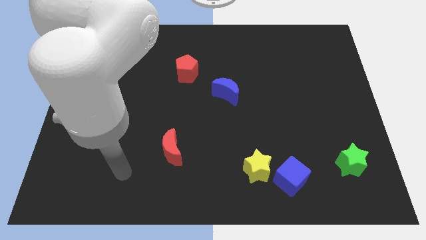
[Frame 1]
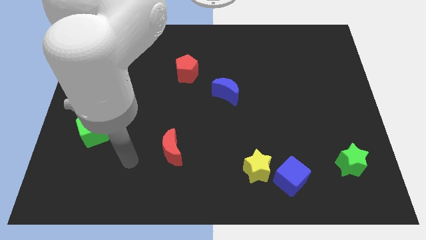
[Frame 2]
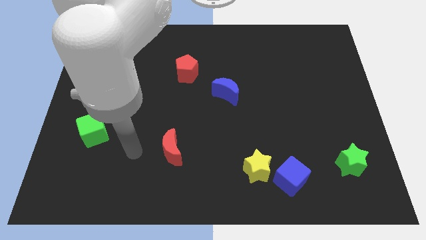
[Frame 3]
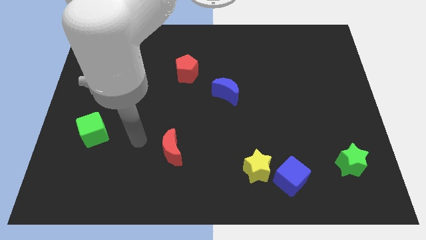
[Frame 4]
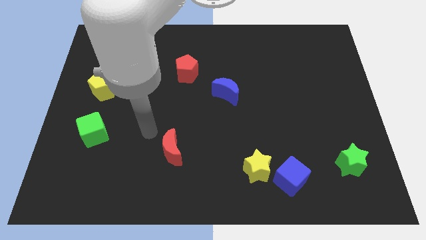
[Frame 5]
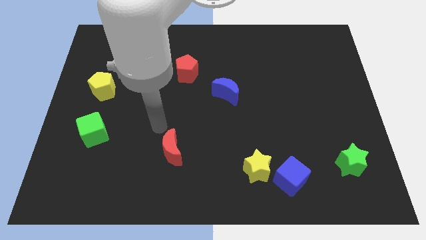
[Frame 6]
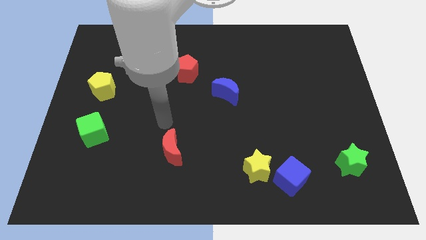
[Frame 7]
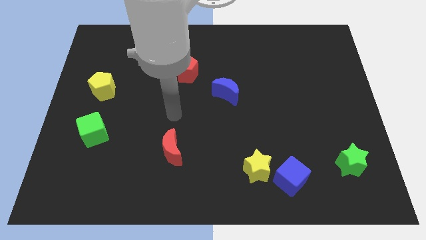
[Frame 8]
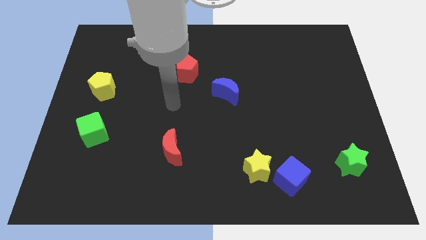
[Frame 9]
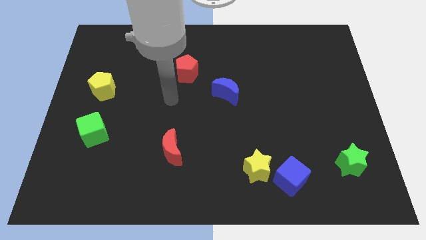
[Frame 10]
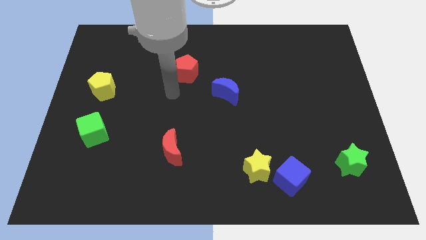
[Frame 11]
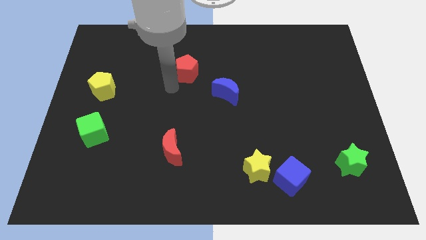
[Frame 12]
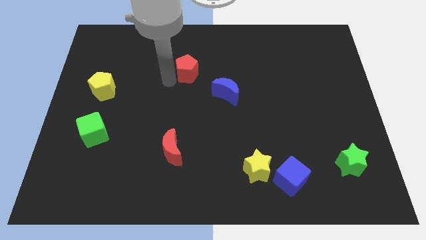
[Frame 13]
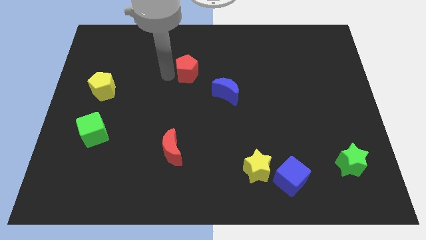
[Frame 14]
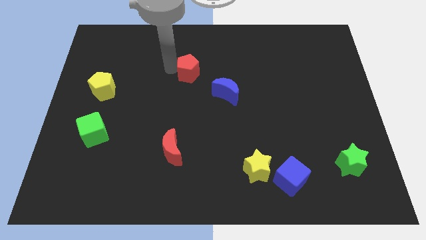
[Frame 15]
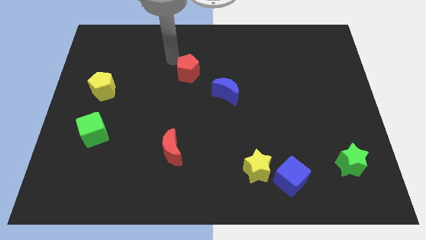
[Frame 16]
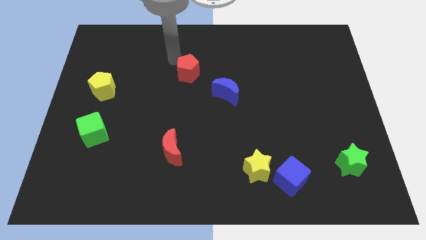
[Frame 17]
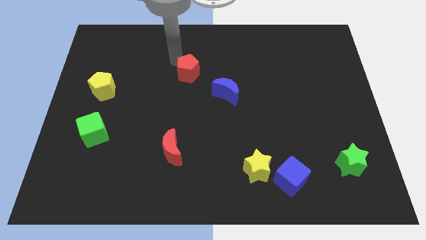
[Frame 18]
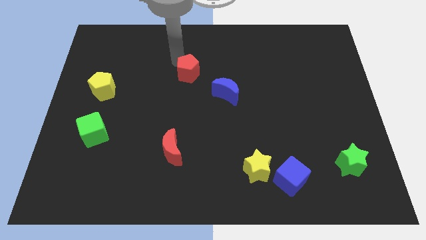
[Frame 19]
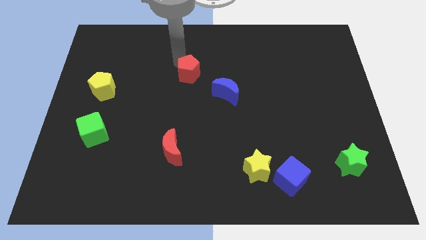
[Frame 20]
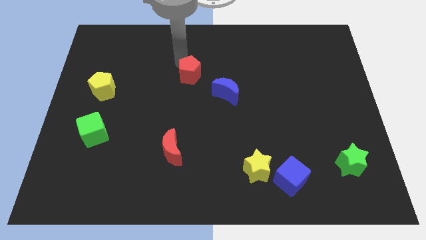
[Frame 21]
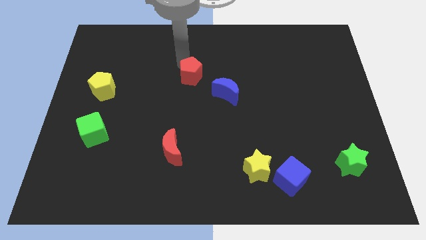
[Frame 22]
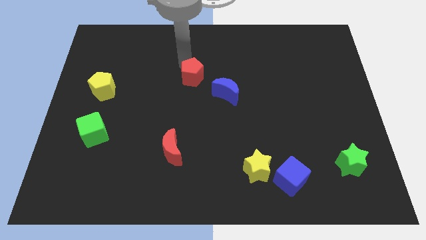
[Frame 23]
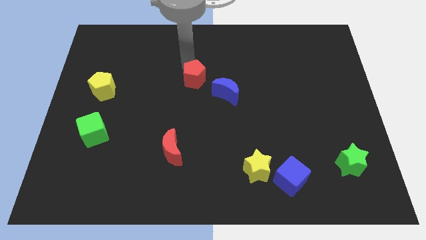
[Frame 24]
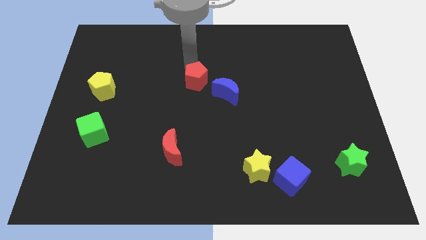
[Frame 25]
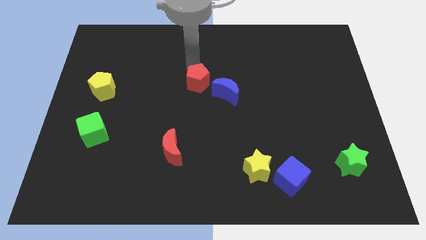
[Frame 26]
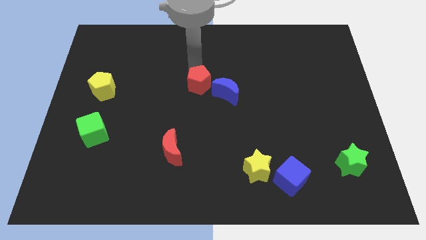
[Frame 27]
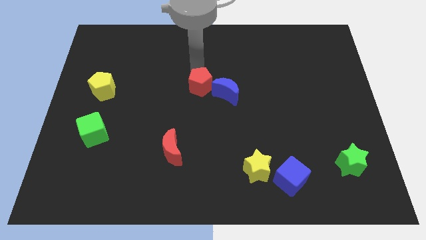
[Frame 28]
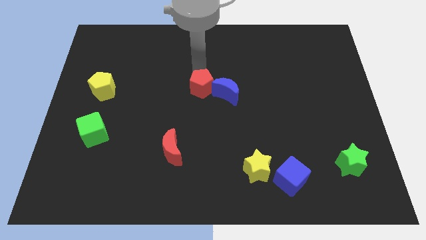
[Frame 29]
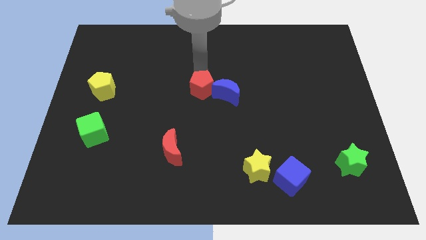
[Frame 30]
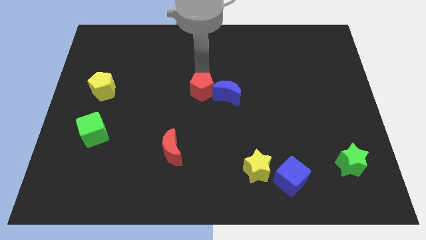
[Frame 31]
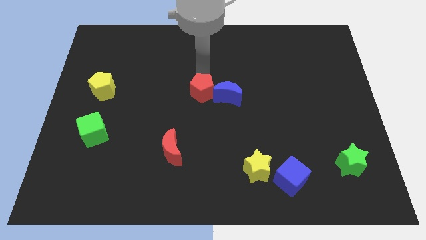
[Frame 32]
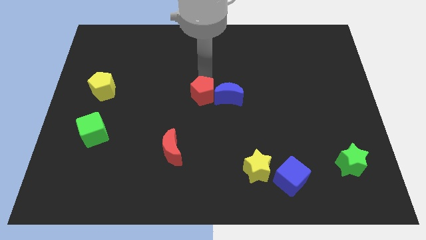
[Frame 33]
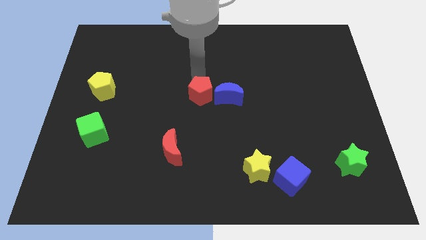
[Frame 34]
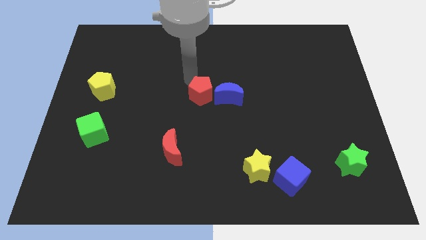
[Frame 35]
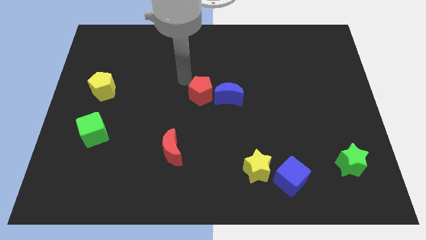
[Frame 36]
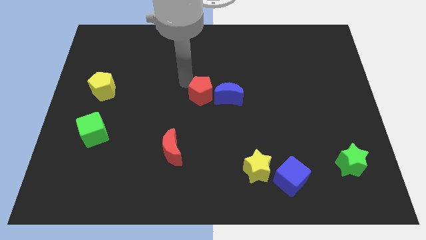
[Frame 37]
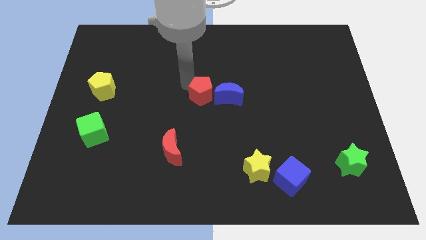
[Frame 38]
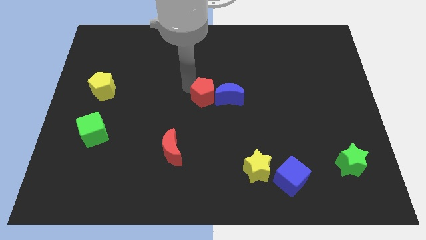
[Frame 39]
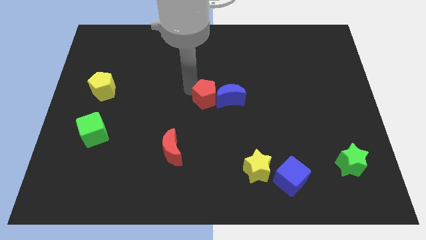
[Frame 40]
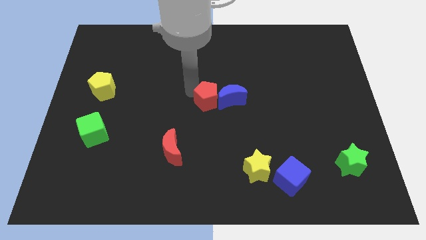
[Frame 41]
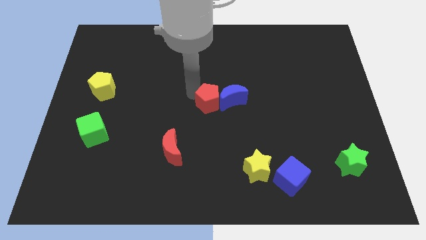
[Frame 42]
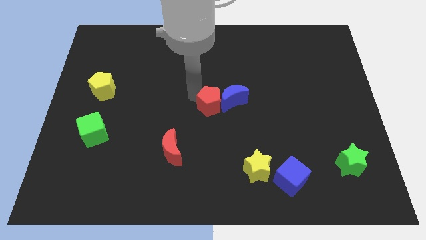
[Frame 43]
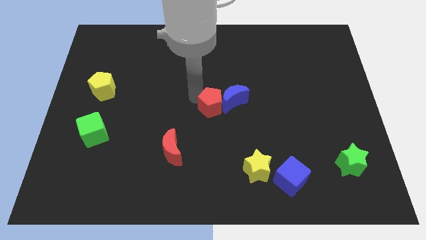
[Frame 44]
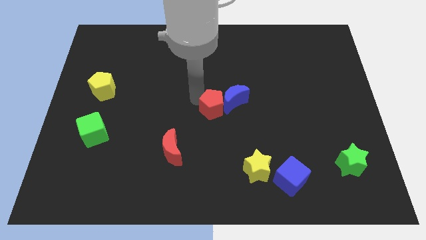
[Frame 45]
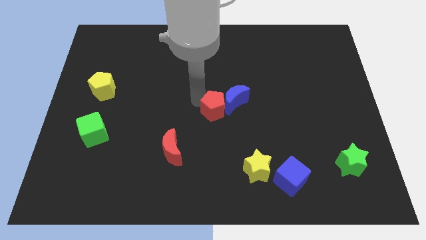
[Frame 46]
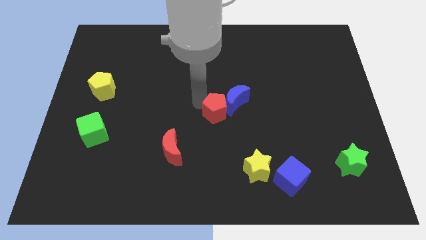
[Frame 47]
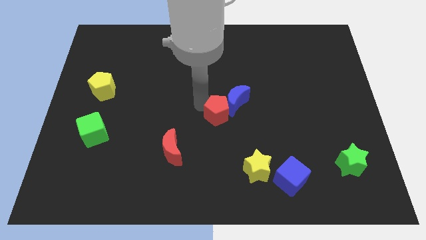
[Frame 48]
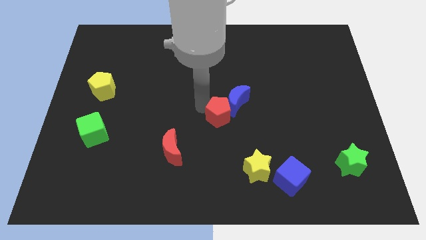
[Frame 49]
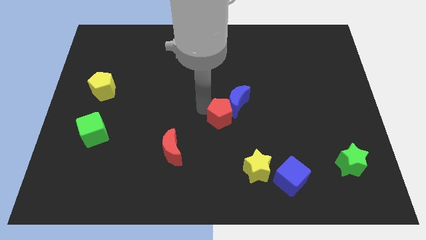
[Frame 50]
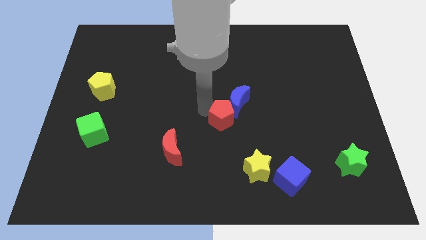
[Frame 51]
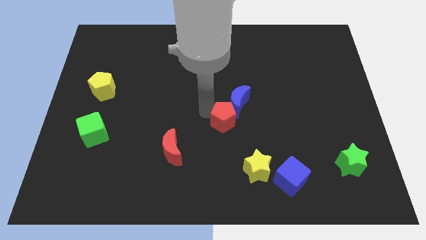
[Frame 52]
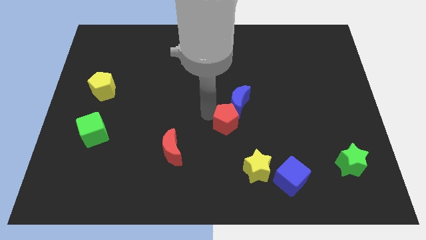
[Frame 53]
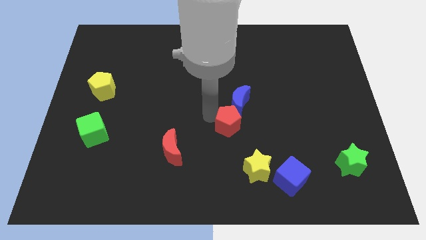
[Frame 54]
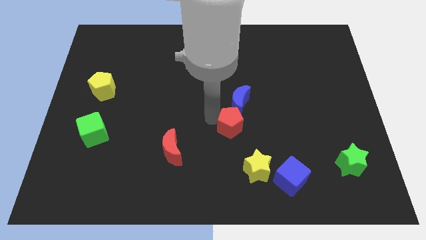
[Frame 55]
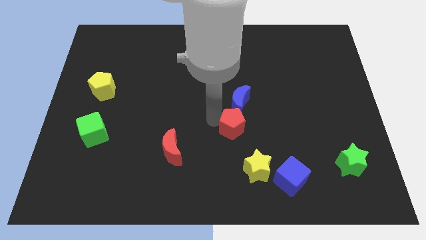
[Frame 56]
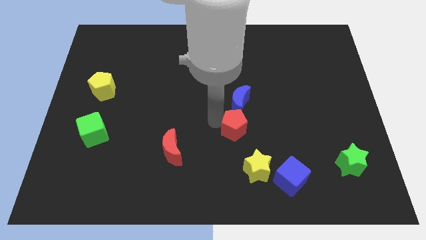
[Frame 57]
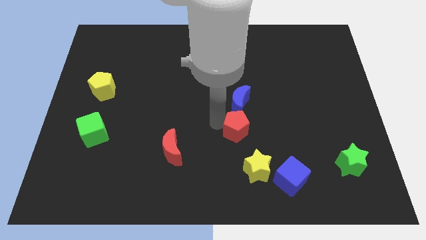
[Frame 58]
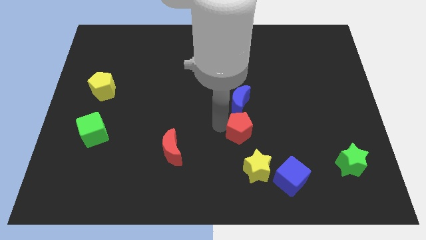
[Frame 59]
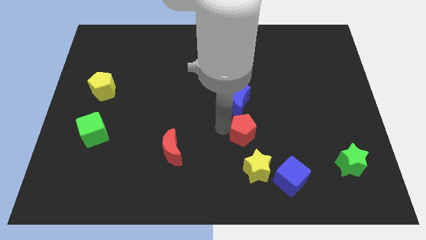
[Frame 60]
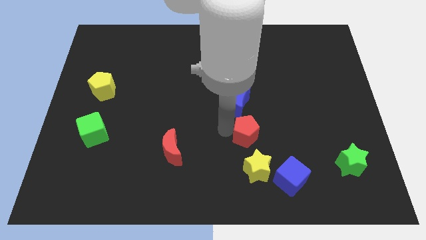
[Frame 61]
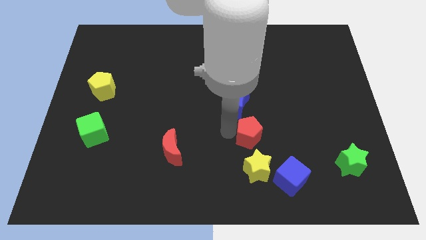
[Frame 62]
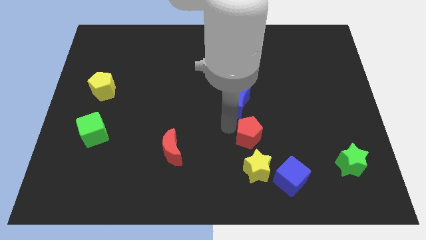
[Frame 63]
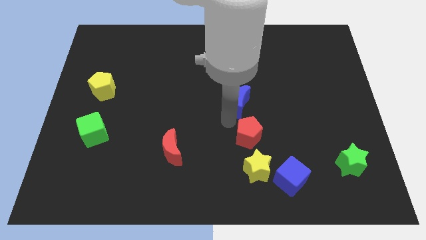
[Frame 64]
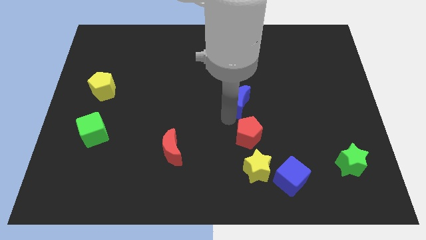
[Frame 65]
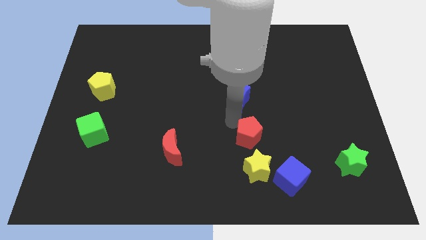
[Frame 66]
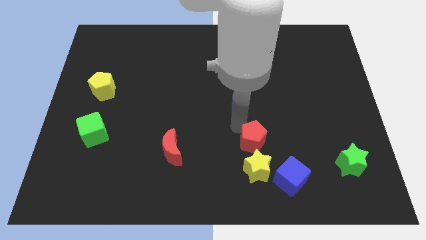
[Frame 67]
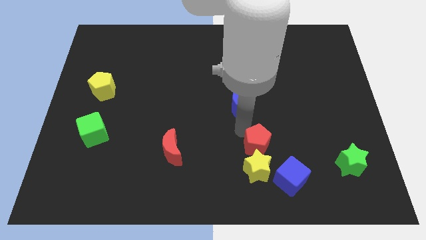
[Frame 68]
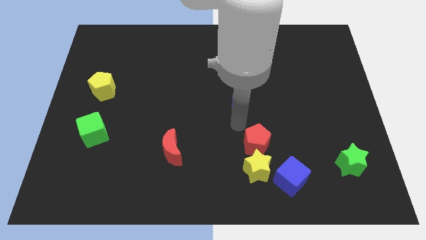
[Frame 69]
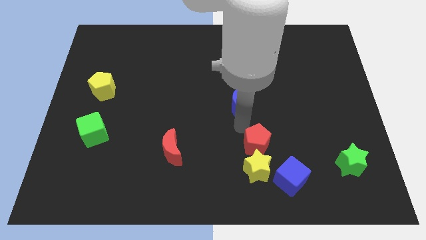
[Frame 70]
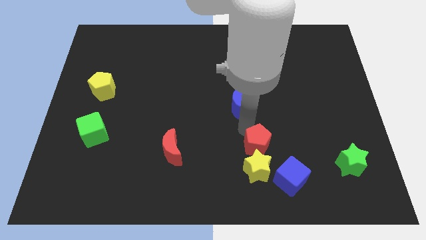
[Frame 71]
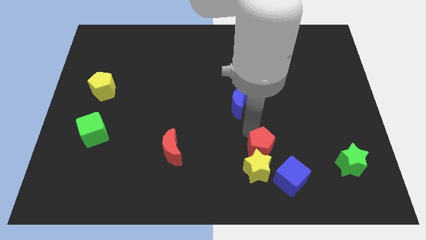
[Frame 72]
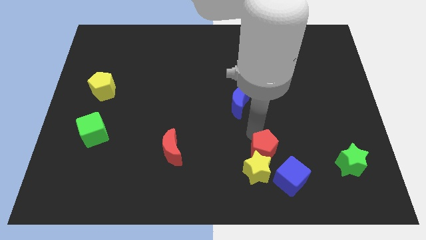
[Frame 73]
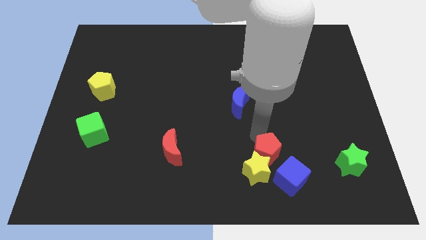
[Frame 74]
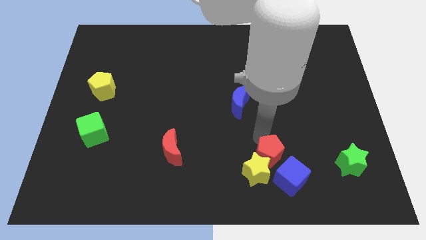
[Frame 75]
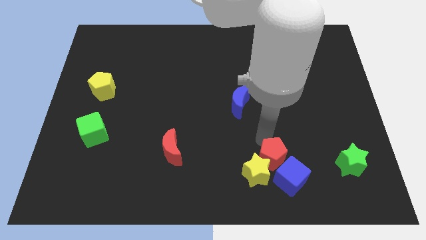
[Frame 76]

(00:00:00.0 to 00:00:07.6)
push the red pentagon close to the blue cube
